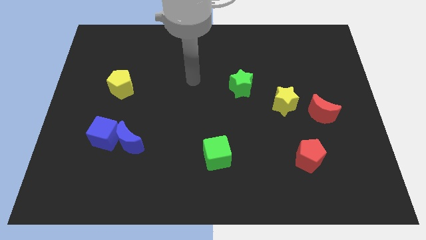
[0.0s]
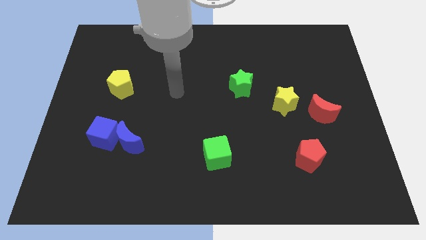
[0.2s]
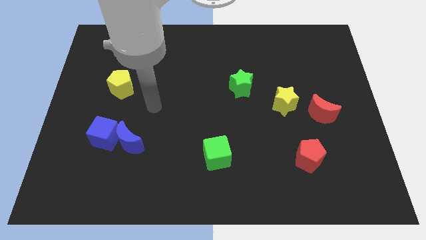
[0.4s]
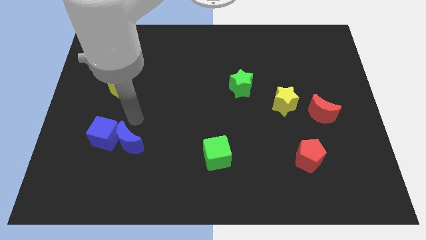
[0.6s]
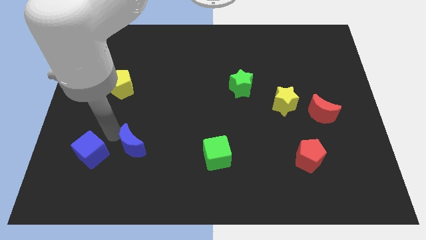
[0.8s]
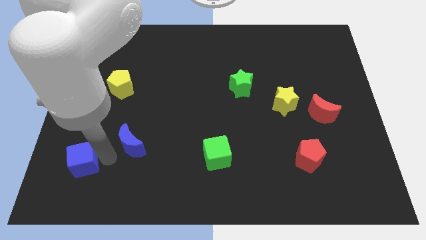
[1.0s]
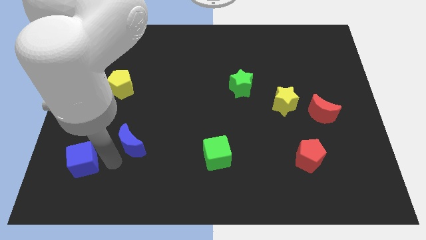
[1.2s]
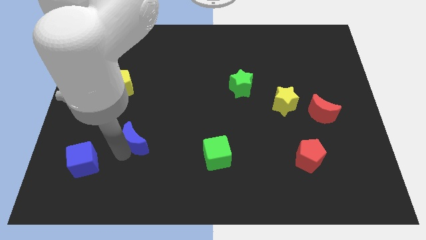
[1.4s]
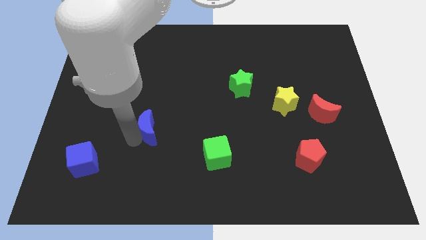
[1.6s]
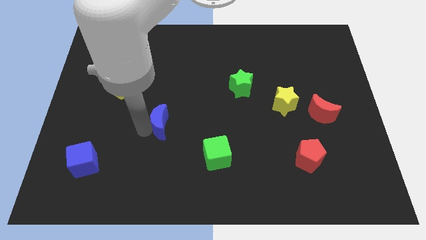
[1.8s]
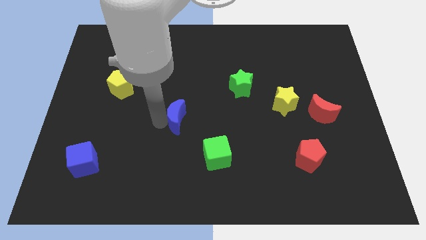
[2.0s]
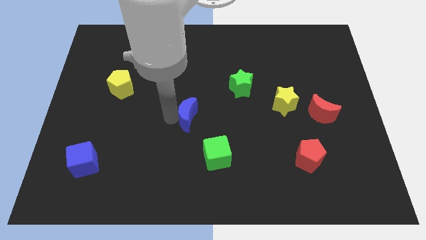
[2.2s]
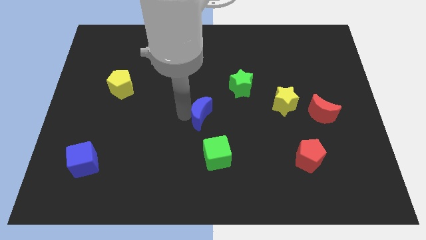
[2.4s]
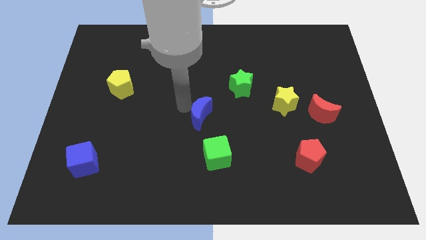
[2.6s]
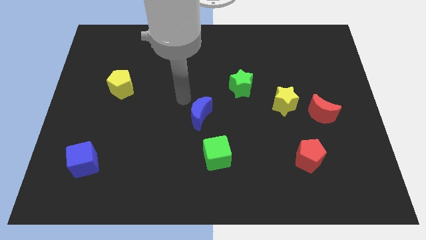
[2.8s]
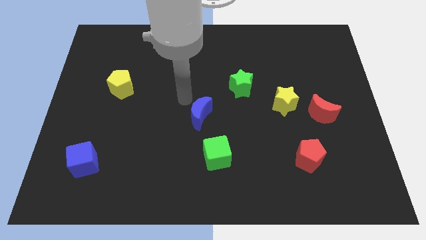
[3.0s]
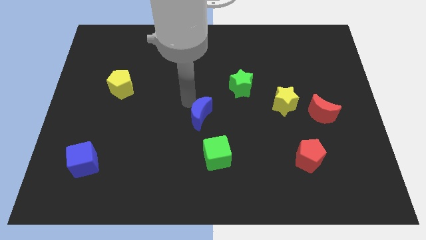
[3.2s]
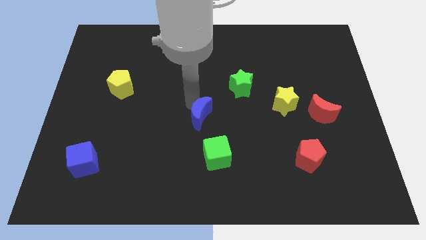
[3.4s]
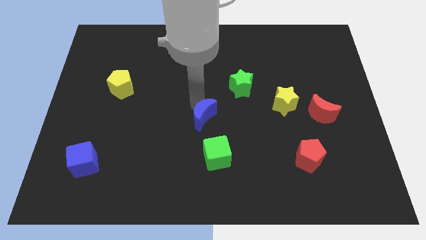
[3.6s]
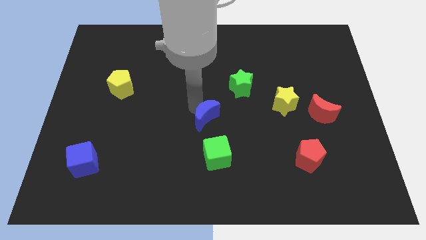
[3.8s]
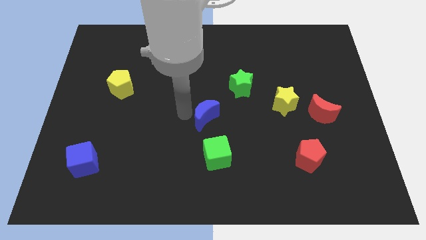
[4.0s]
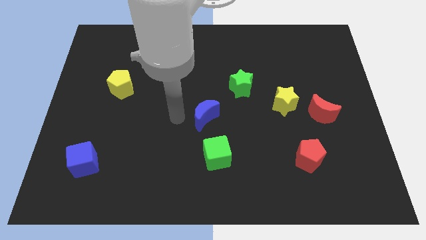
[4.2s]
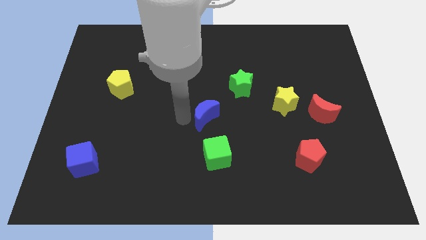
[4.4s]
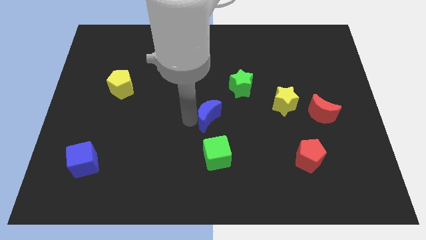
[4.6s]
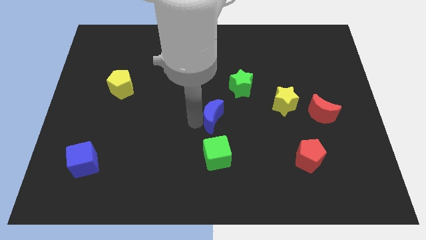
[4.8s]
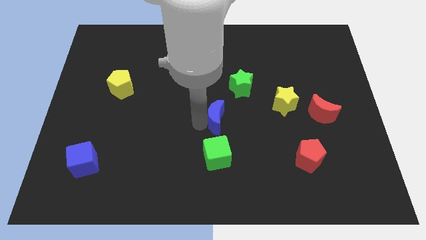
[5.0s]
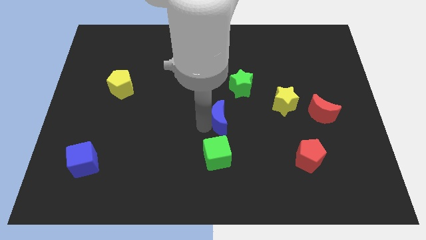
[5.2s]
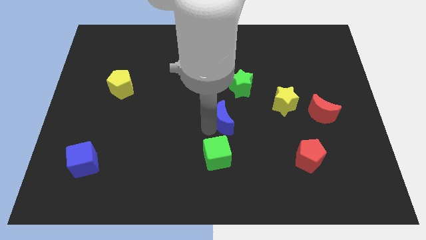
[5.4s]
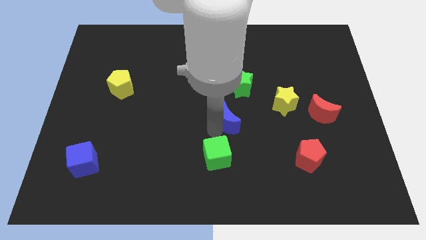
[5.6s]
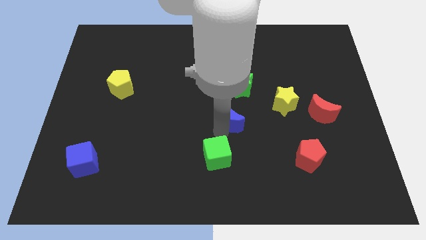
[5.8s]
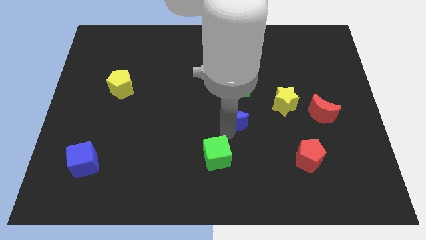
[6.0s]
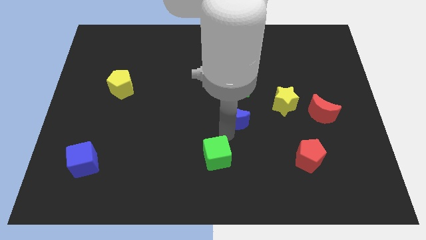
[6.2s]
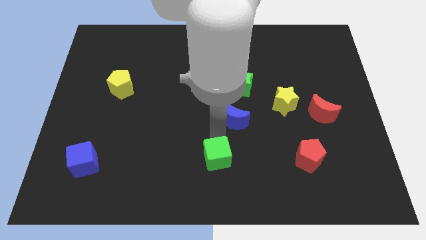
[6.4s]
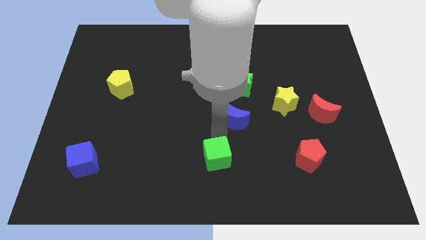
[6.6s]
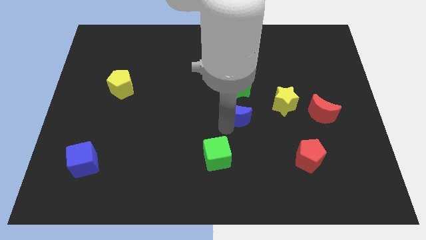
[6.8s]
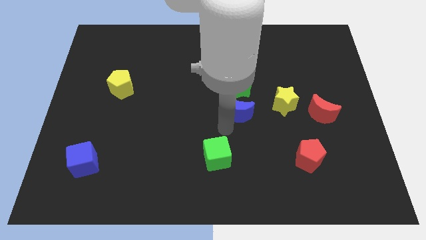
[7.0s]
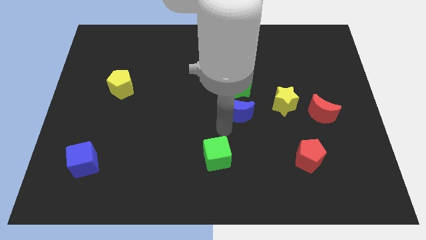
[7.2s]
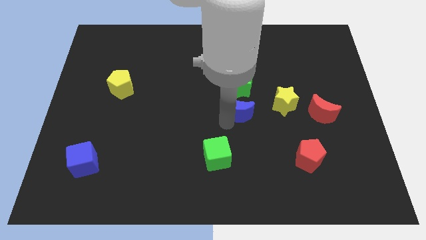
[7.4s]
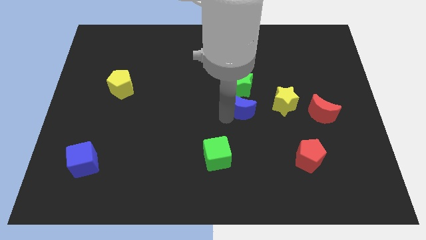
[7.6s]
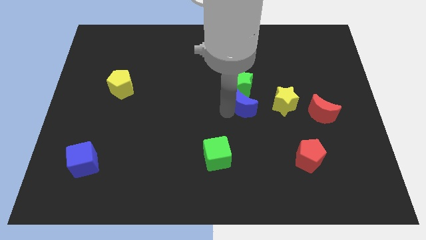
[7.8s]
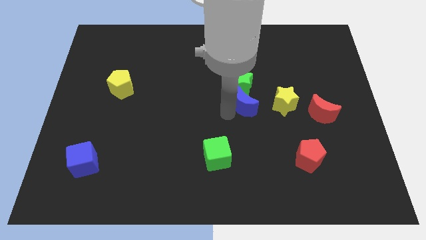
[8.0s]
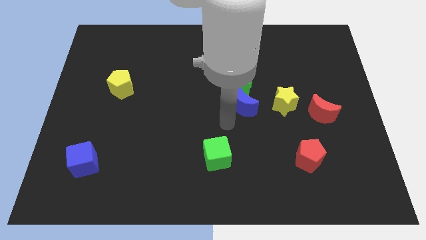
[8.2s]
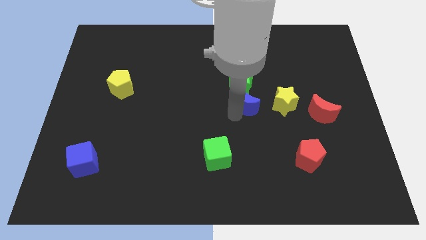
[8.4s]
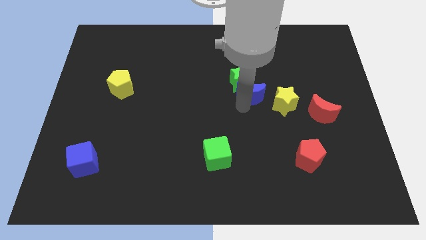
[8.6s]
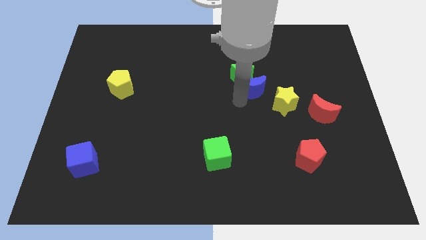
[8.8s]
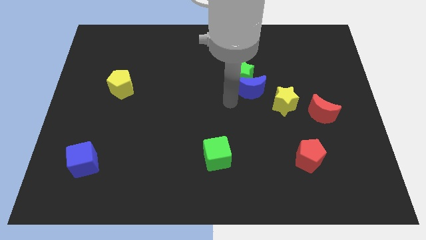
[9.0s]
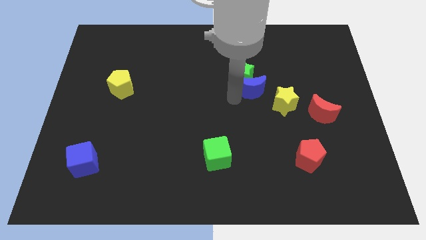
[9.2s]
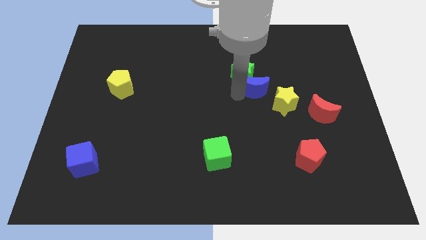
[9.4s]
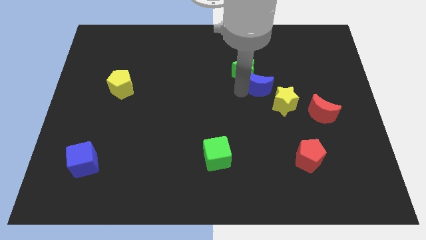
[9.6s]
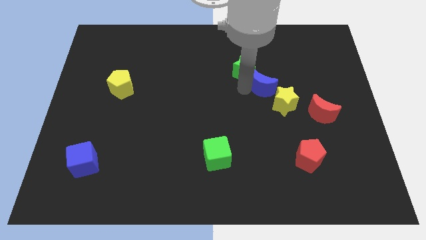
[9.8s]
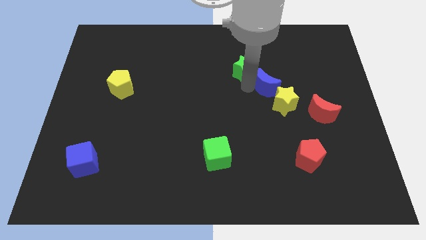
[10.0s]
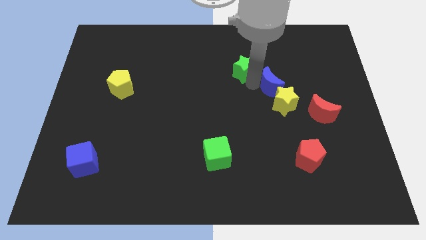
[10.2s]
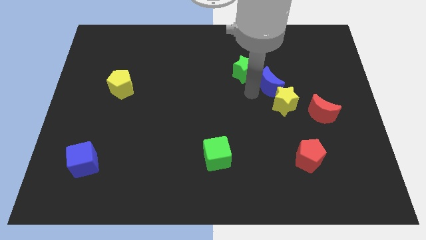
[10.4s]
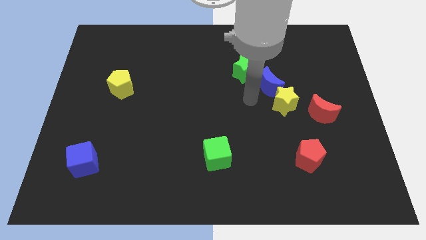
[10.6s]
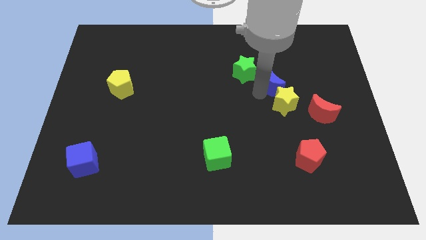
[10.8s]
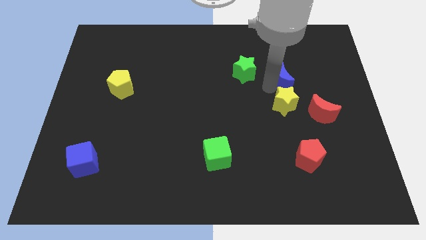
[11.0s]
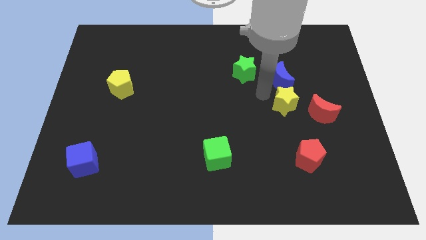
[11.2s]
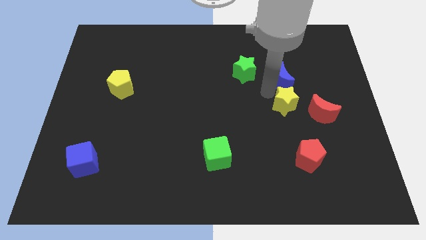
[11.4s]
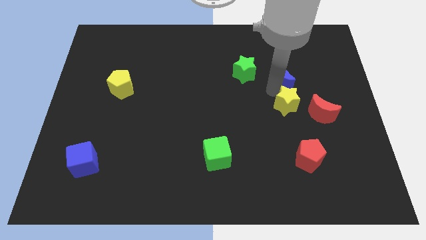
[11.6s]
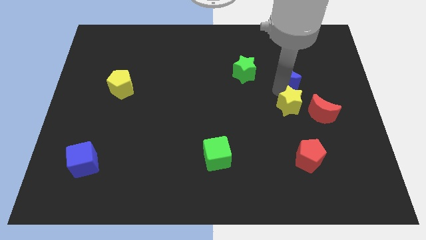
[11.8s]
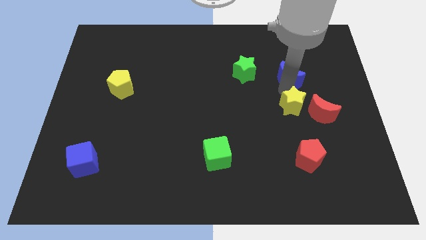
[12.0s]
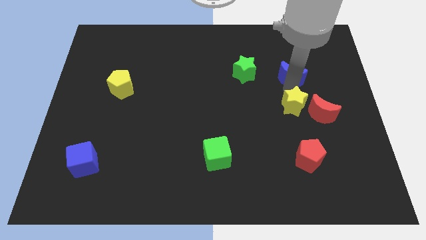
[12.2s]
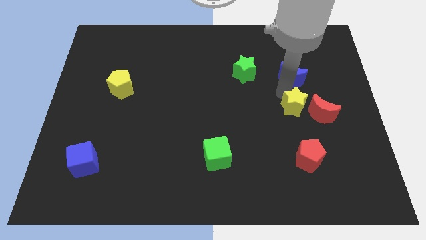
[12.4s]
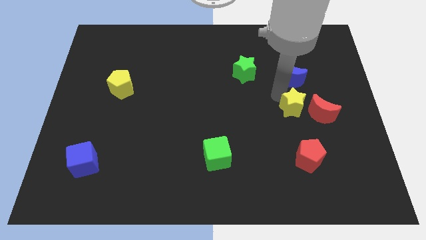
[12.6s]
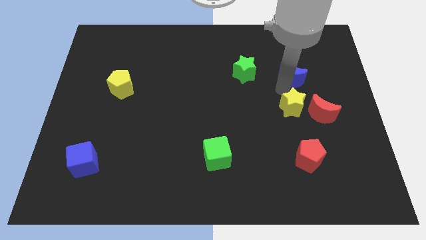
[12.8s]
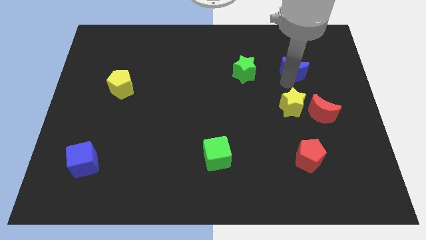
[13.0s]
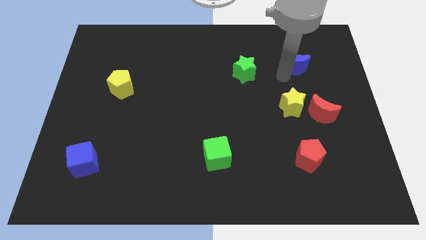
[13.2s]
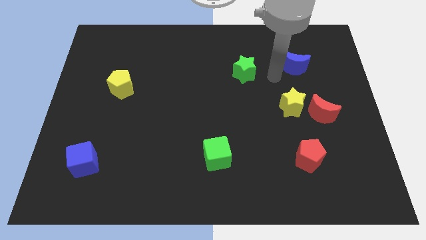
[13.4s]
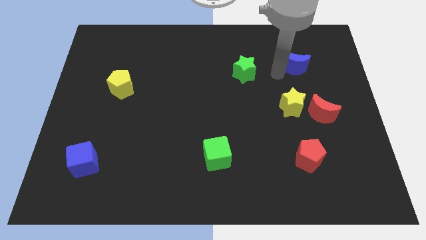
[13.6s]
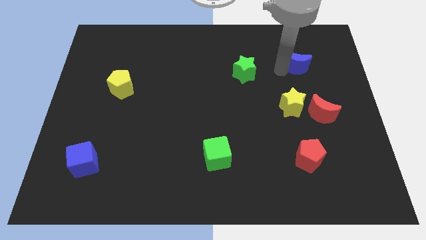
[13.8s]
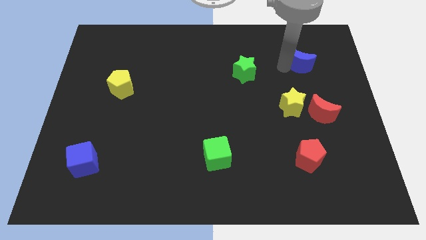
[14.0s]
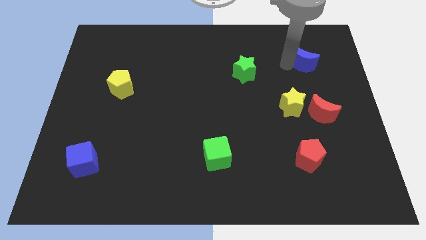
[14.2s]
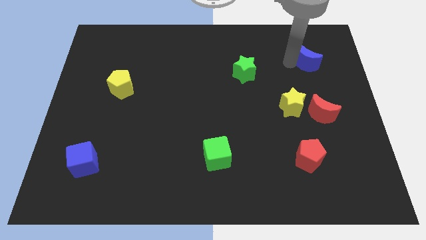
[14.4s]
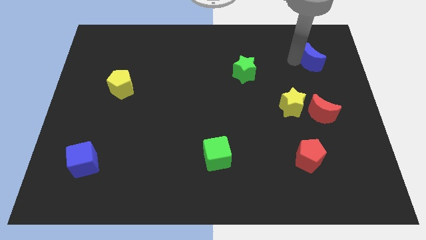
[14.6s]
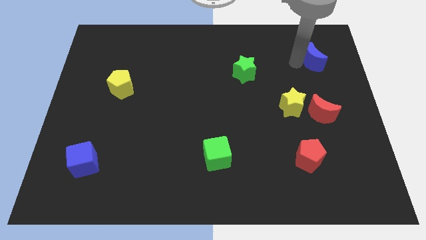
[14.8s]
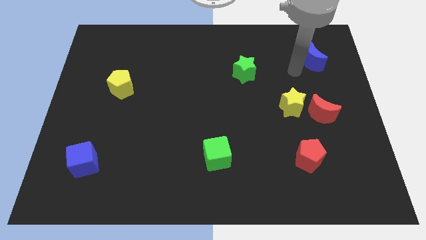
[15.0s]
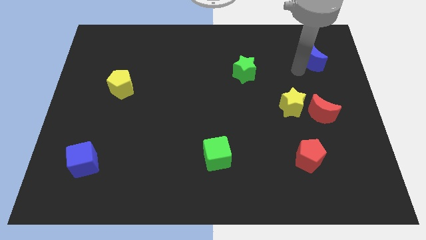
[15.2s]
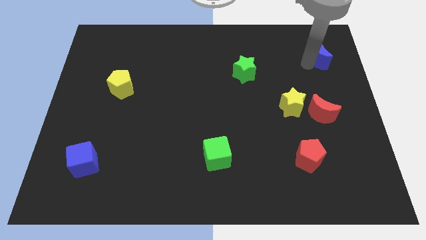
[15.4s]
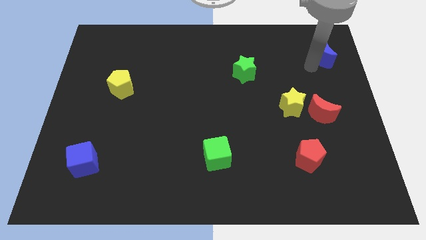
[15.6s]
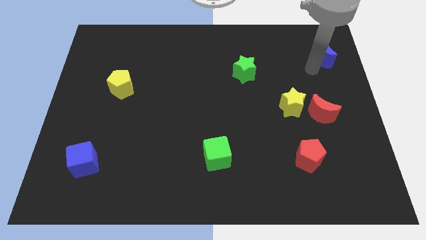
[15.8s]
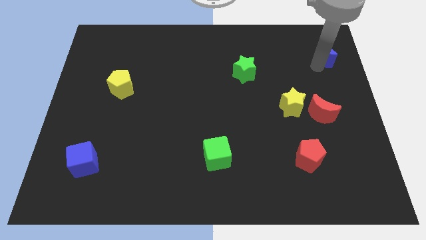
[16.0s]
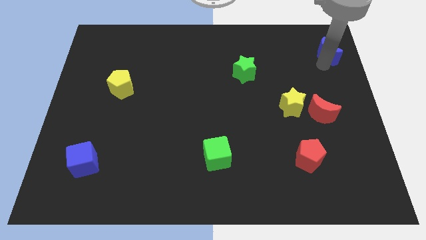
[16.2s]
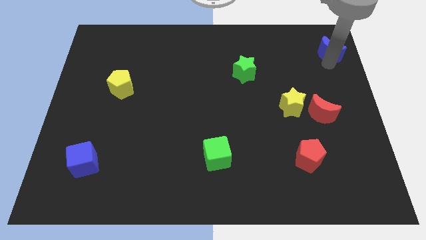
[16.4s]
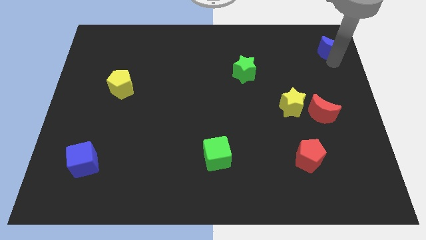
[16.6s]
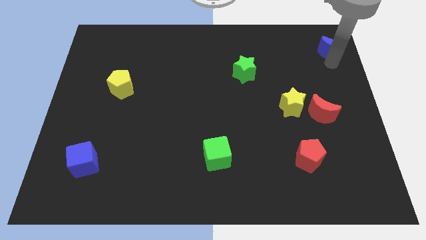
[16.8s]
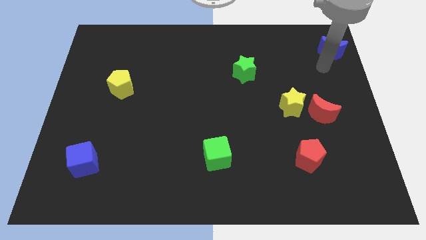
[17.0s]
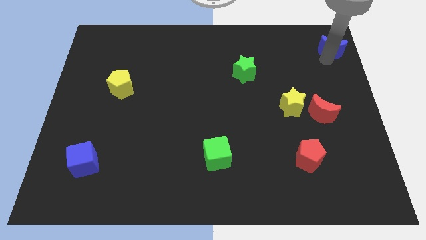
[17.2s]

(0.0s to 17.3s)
move the blue moon to the top right
